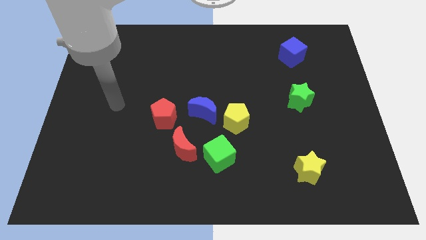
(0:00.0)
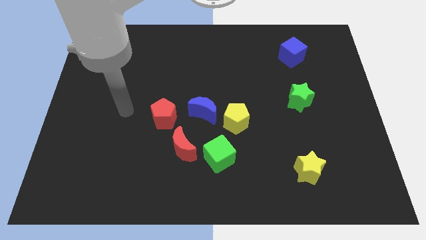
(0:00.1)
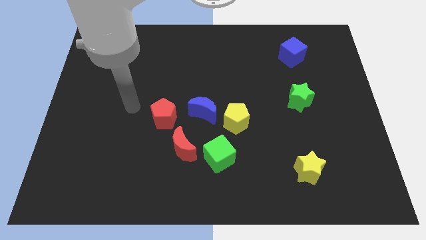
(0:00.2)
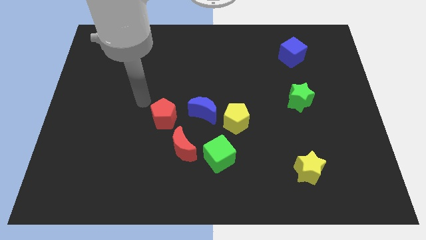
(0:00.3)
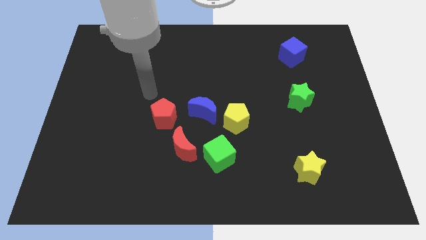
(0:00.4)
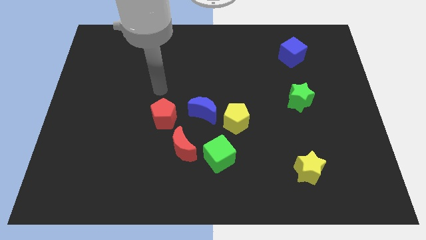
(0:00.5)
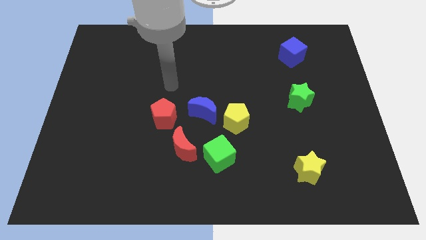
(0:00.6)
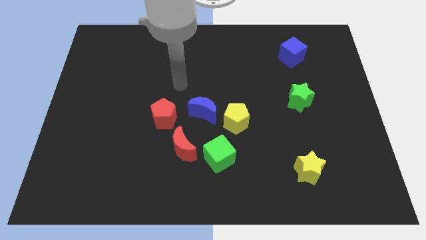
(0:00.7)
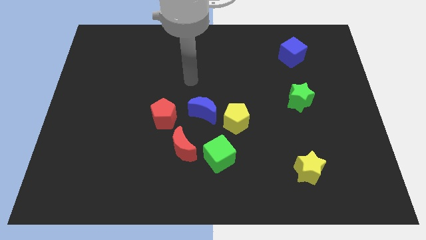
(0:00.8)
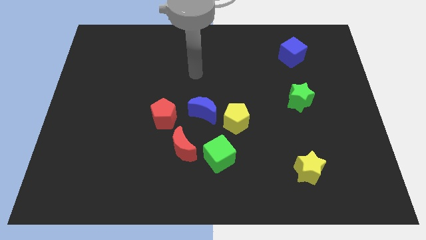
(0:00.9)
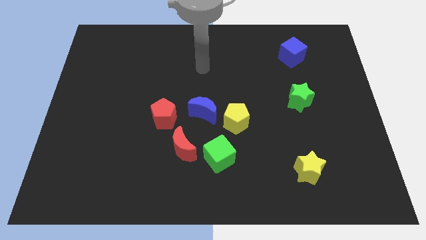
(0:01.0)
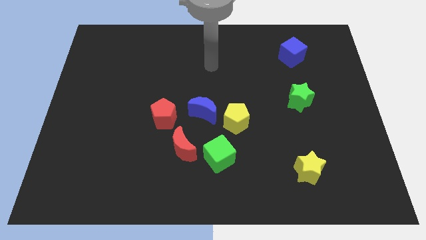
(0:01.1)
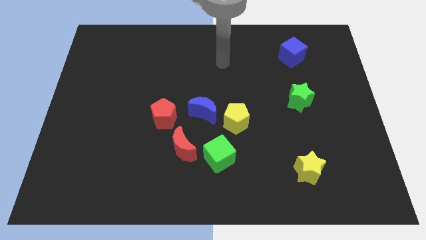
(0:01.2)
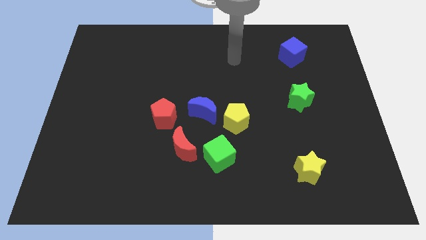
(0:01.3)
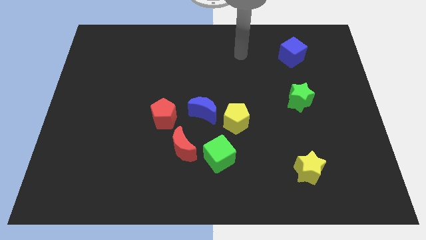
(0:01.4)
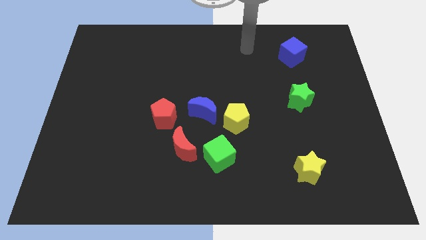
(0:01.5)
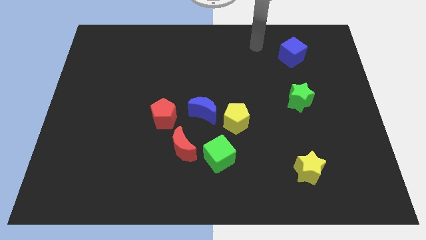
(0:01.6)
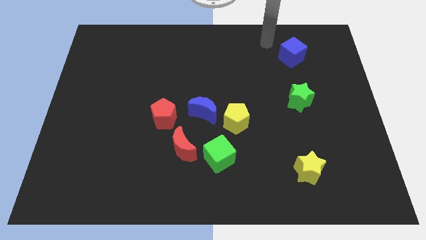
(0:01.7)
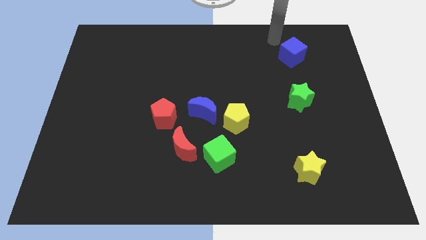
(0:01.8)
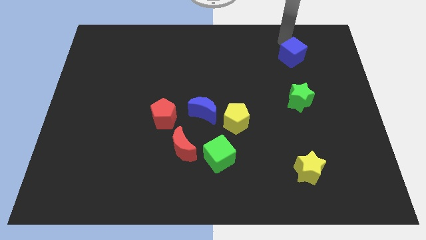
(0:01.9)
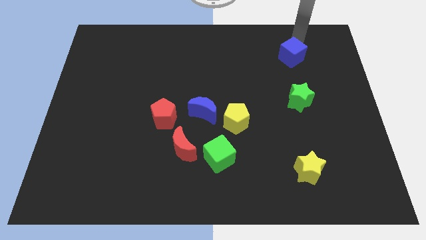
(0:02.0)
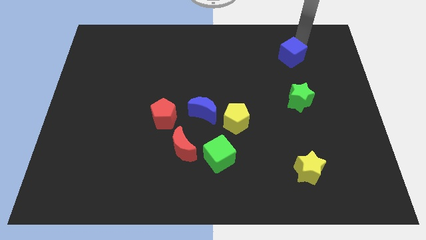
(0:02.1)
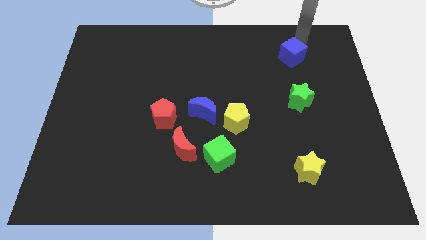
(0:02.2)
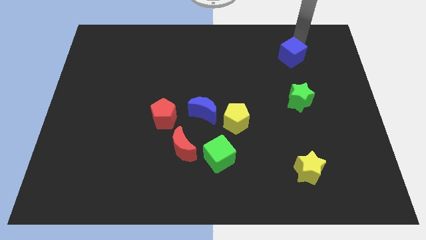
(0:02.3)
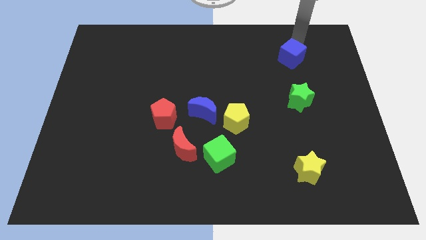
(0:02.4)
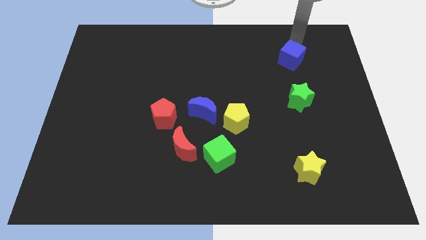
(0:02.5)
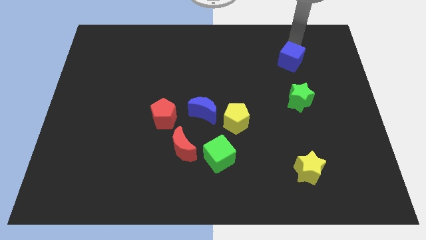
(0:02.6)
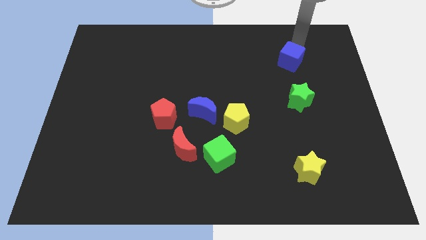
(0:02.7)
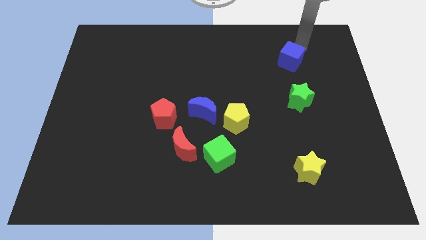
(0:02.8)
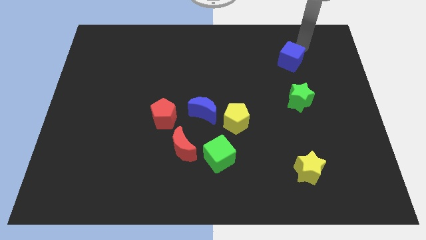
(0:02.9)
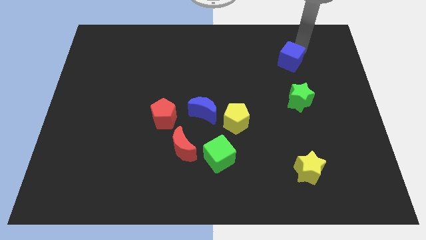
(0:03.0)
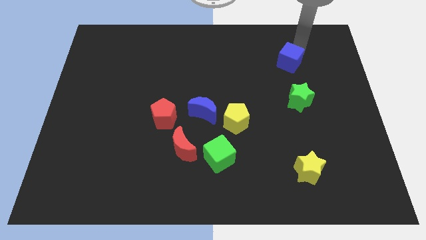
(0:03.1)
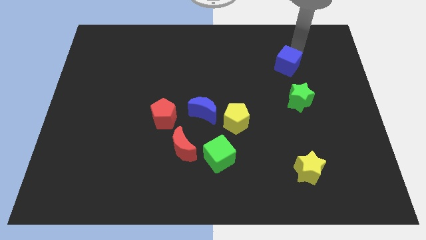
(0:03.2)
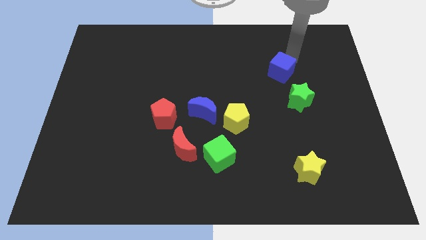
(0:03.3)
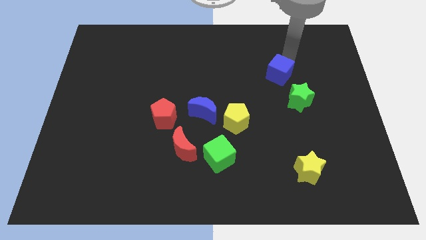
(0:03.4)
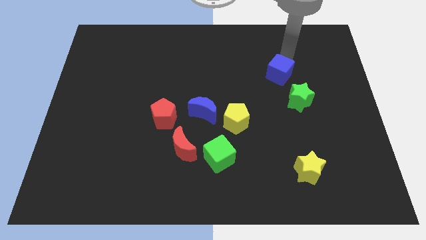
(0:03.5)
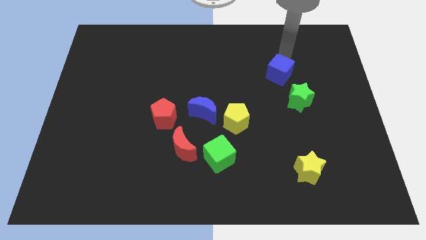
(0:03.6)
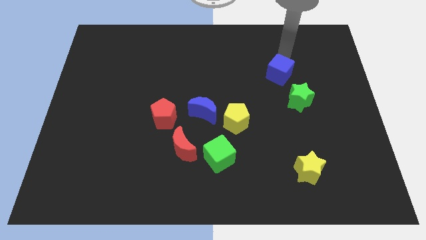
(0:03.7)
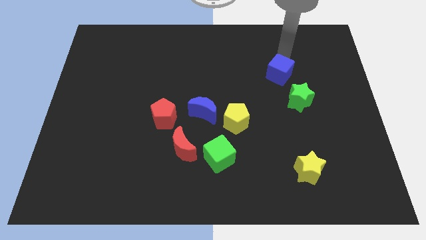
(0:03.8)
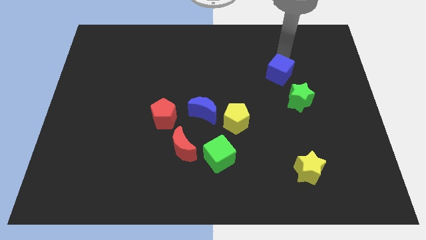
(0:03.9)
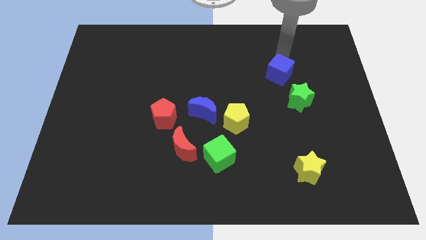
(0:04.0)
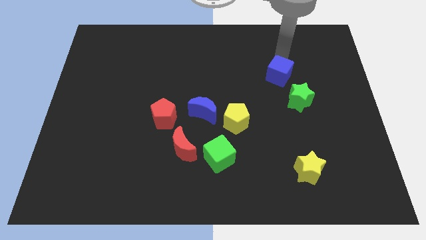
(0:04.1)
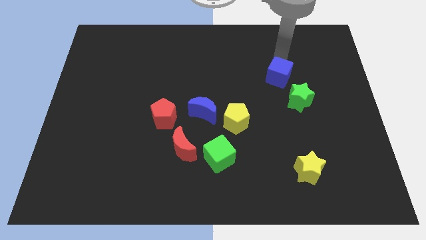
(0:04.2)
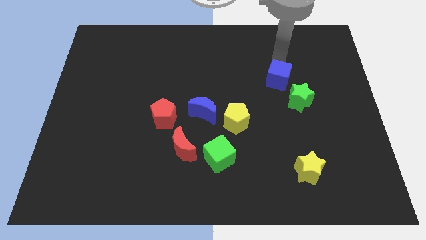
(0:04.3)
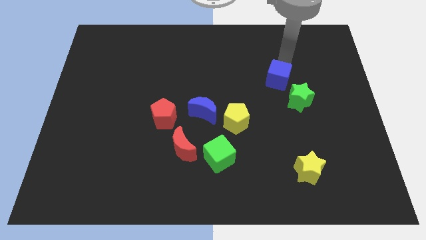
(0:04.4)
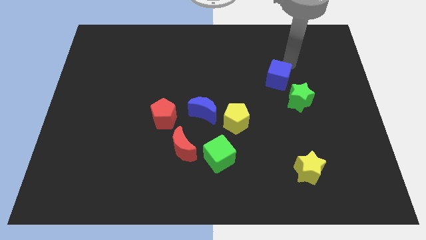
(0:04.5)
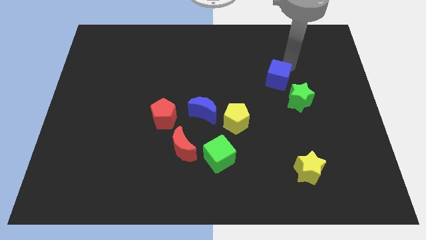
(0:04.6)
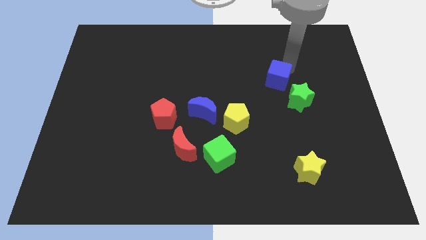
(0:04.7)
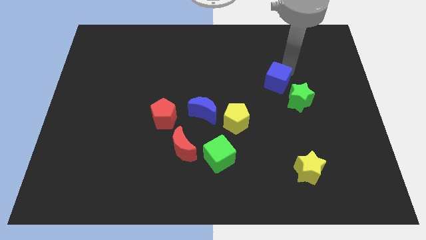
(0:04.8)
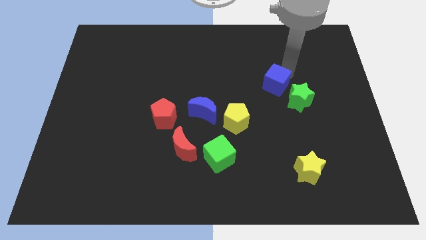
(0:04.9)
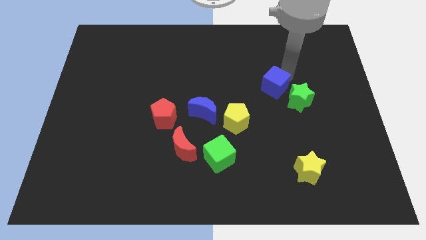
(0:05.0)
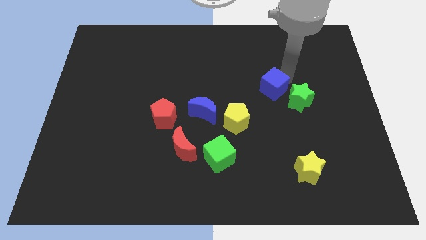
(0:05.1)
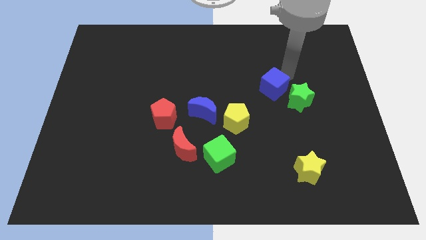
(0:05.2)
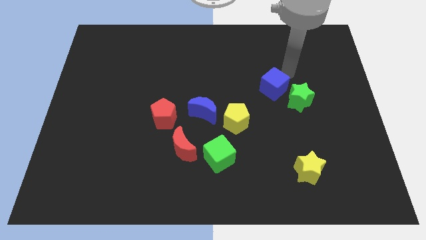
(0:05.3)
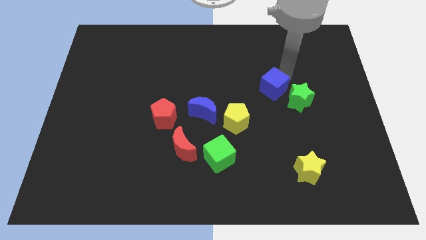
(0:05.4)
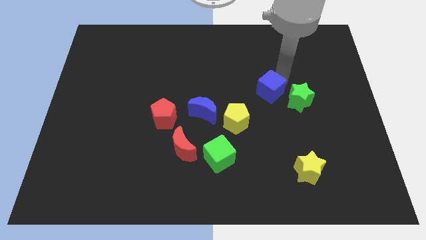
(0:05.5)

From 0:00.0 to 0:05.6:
put the blue cube to the top right side of the yellow pentagon

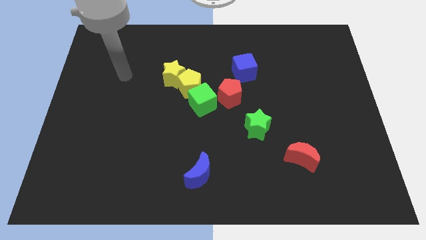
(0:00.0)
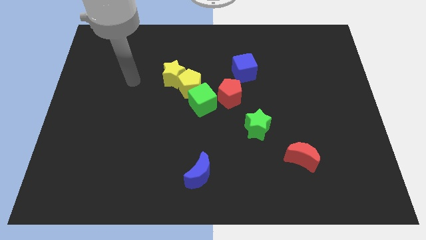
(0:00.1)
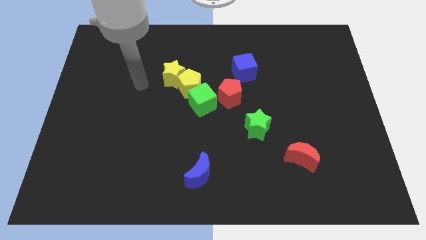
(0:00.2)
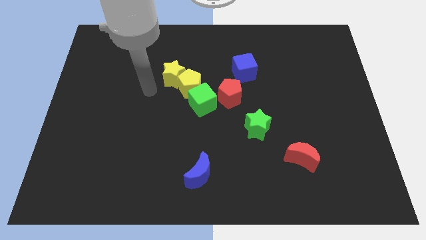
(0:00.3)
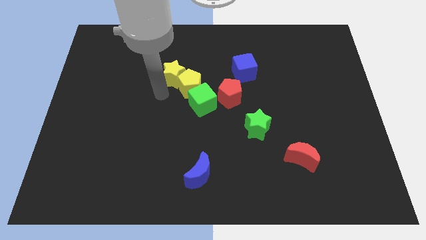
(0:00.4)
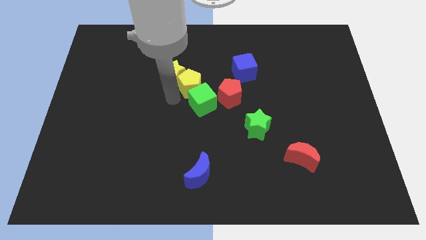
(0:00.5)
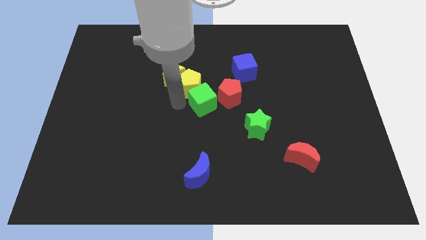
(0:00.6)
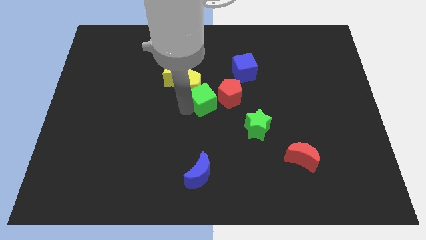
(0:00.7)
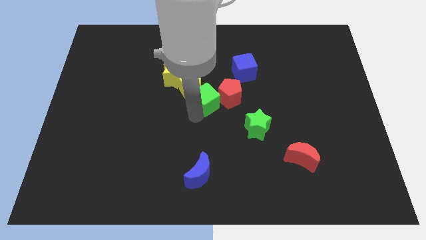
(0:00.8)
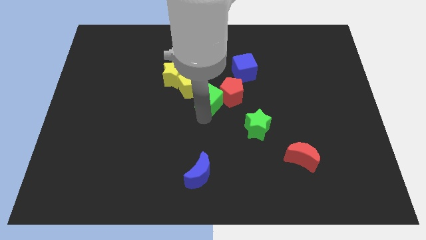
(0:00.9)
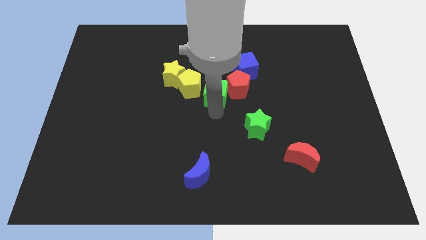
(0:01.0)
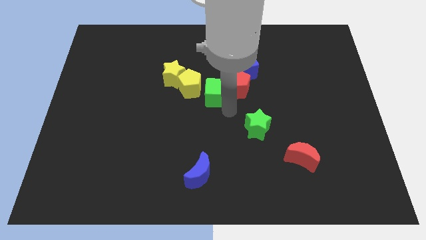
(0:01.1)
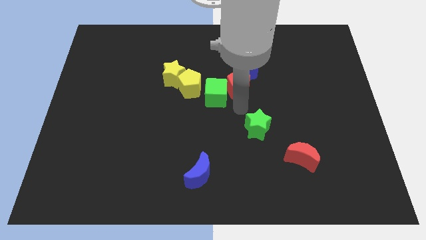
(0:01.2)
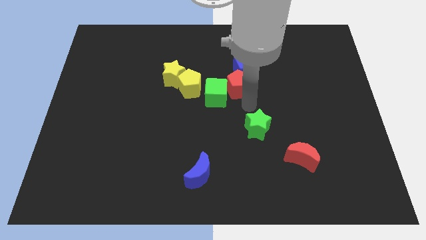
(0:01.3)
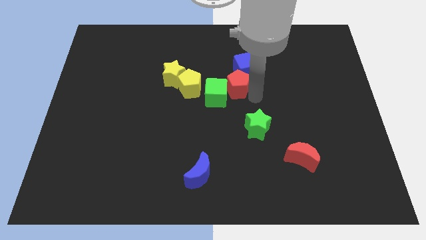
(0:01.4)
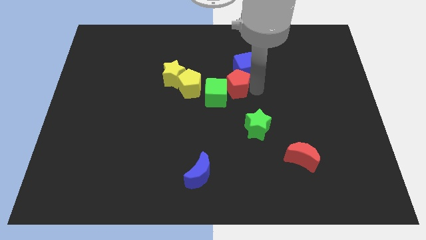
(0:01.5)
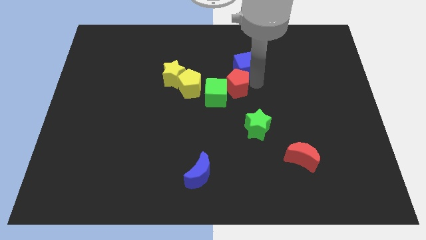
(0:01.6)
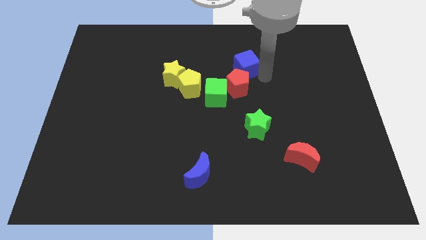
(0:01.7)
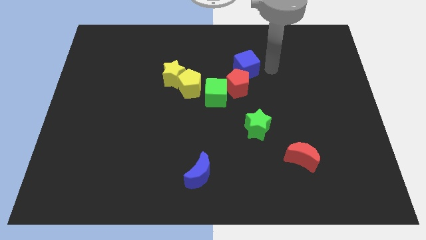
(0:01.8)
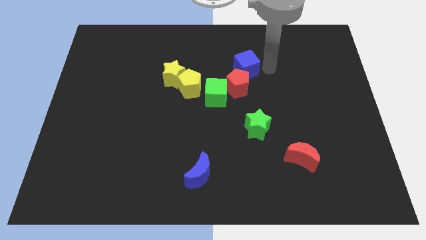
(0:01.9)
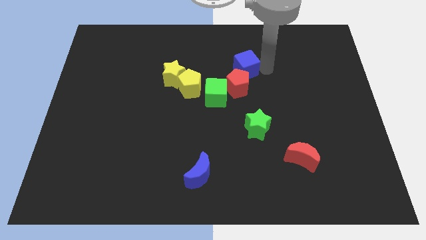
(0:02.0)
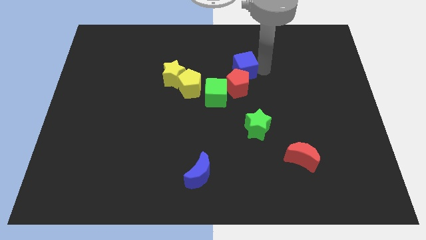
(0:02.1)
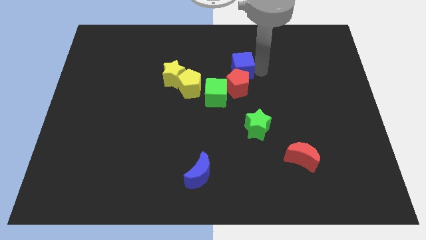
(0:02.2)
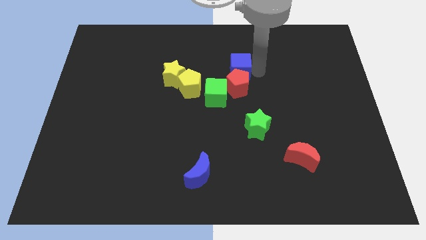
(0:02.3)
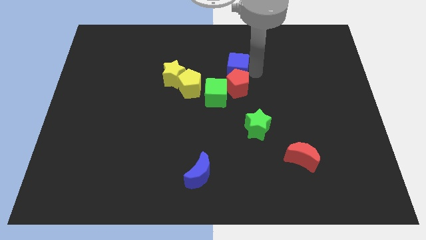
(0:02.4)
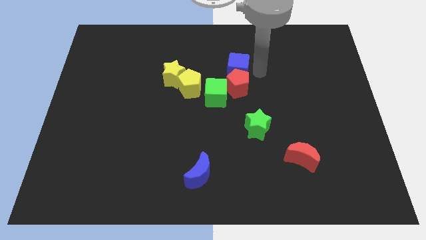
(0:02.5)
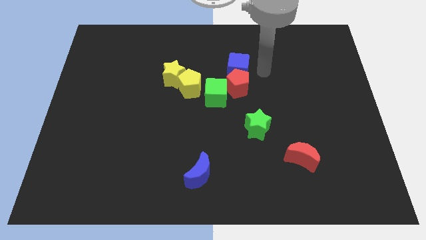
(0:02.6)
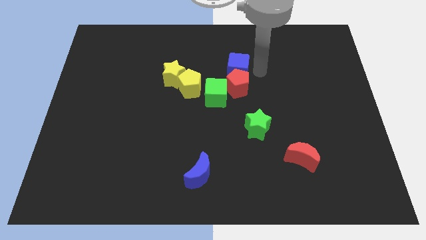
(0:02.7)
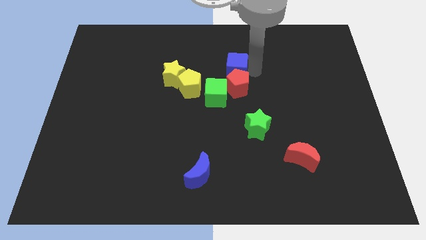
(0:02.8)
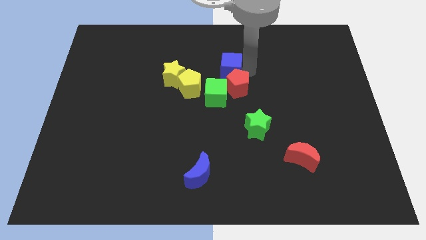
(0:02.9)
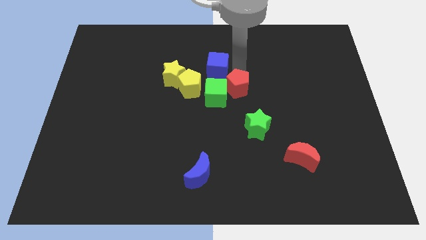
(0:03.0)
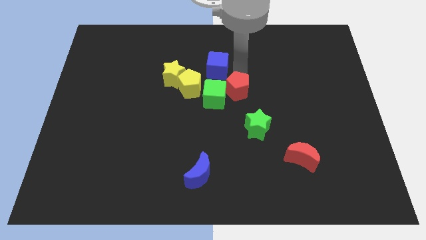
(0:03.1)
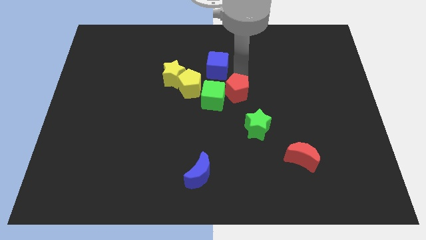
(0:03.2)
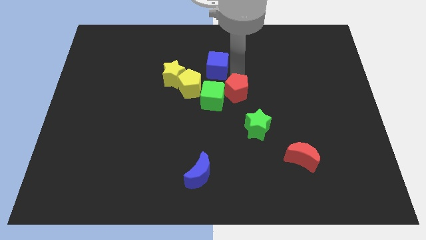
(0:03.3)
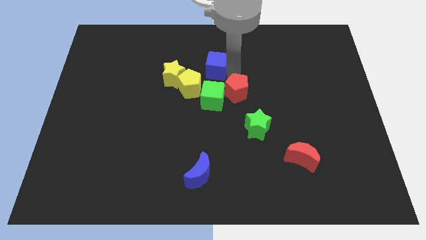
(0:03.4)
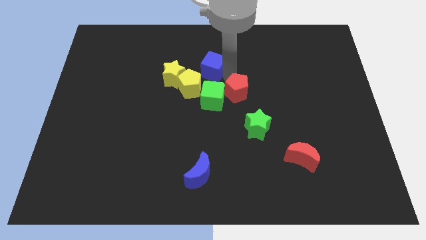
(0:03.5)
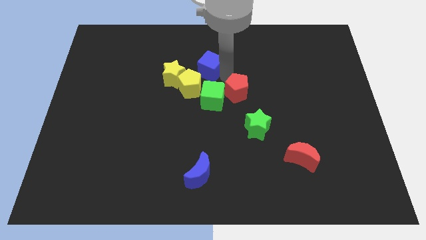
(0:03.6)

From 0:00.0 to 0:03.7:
put the blue cube to the top of the yellow pentagon
